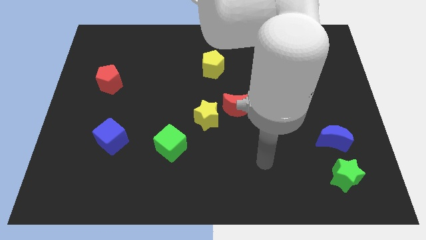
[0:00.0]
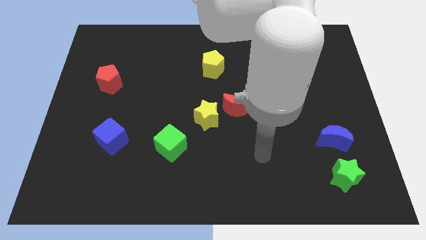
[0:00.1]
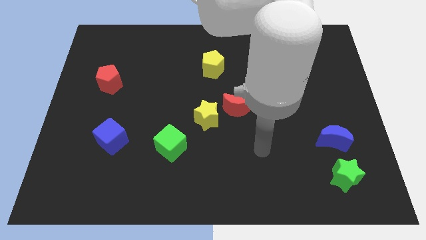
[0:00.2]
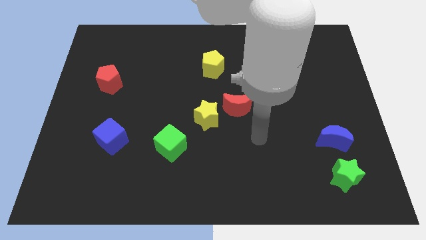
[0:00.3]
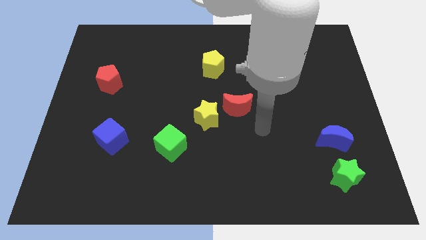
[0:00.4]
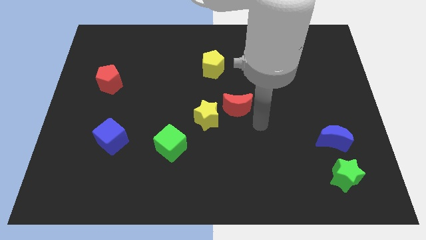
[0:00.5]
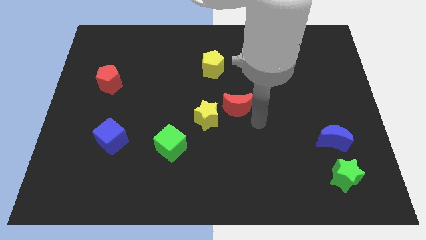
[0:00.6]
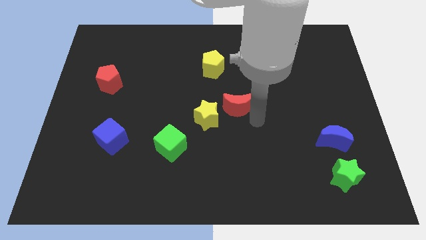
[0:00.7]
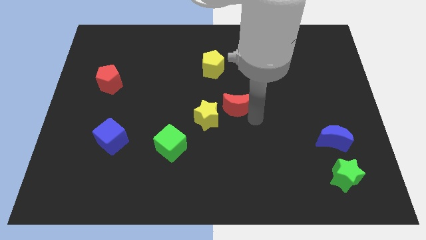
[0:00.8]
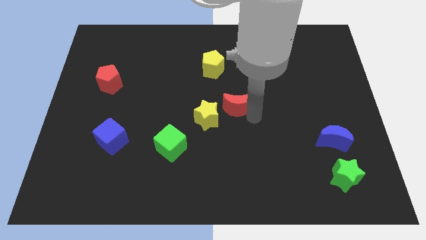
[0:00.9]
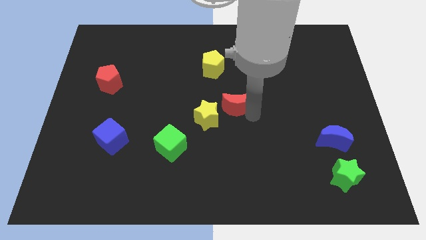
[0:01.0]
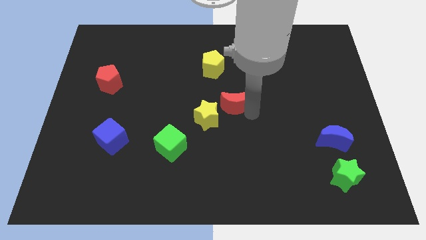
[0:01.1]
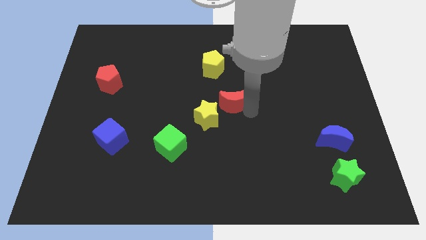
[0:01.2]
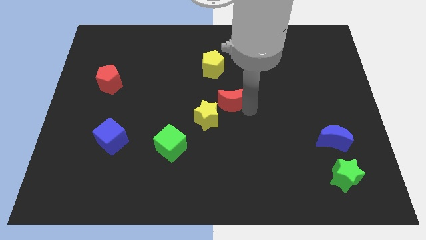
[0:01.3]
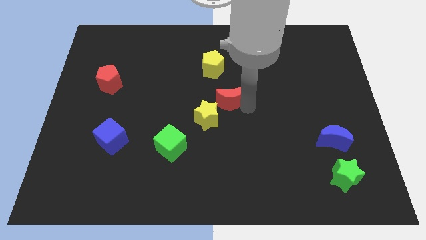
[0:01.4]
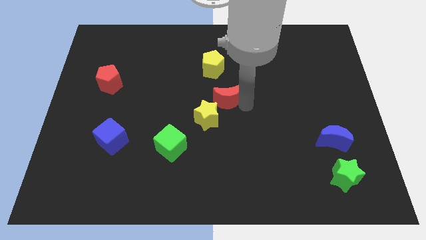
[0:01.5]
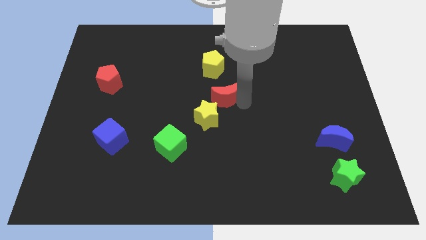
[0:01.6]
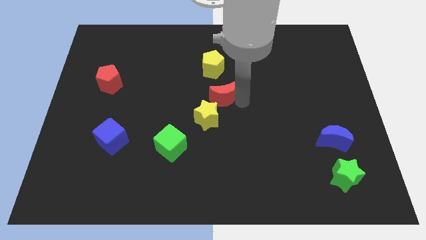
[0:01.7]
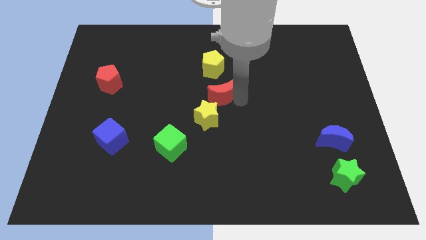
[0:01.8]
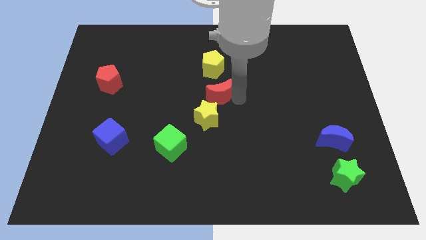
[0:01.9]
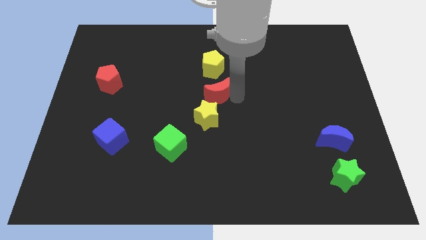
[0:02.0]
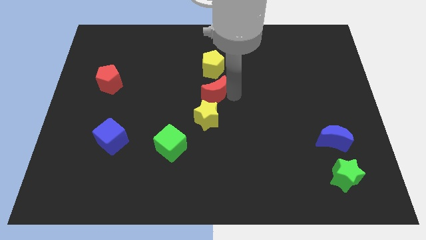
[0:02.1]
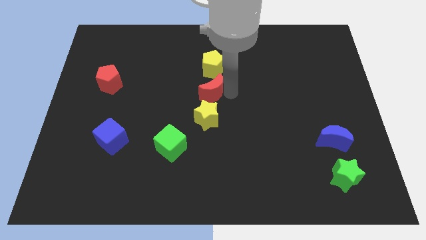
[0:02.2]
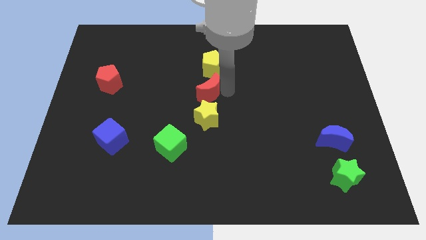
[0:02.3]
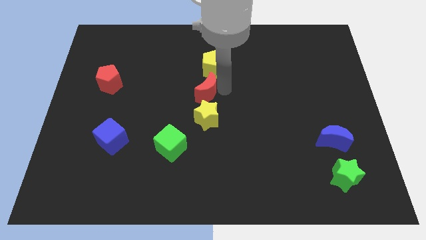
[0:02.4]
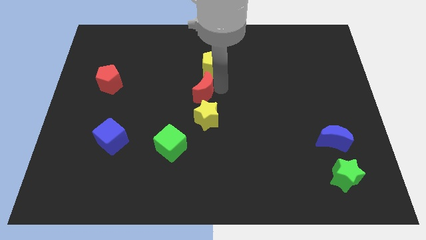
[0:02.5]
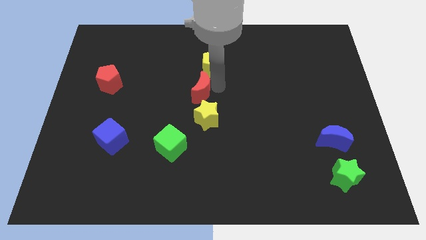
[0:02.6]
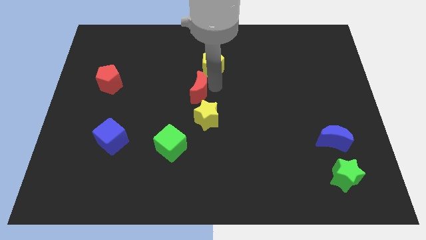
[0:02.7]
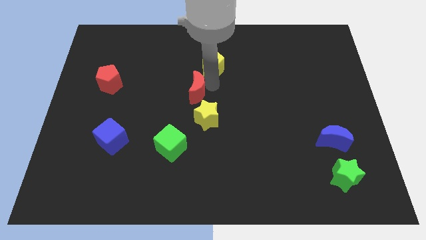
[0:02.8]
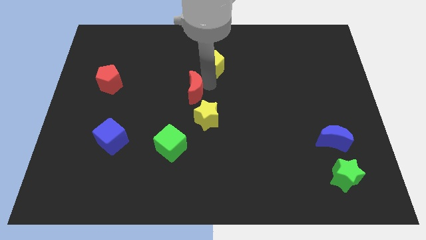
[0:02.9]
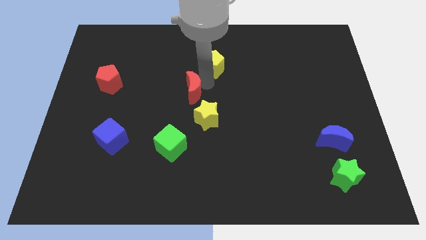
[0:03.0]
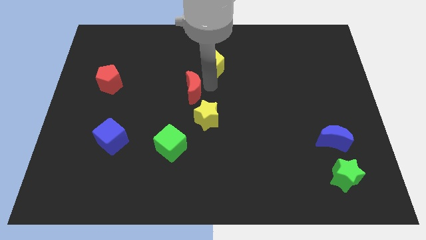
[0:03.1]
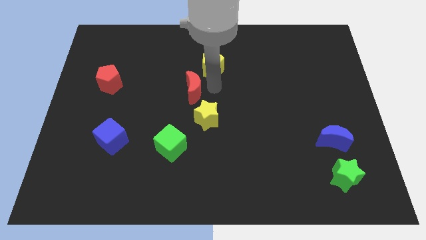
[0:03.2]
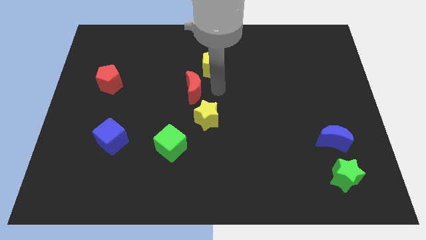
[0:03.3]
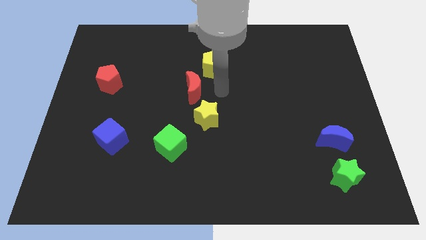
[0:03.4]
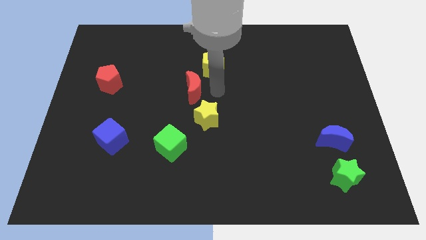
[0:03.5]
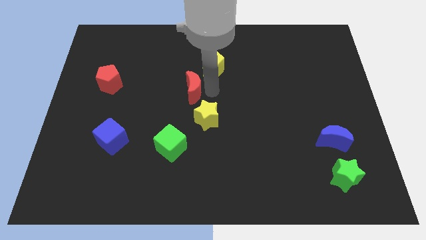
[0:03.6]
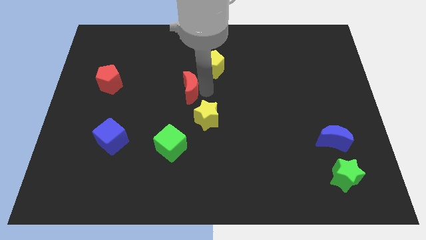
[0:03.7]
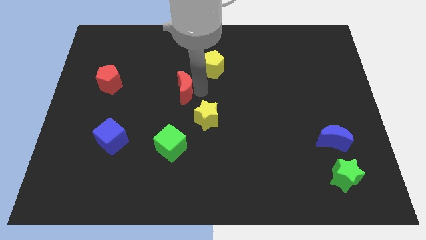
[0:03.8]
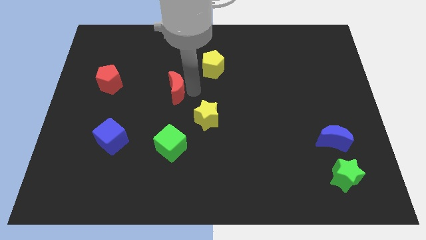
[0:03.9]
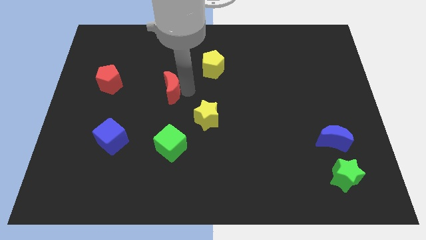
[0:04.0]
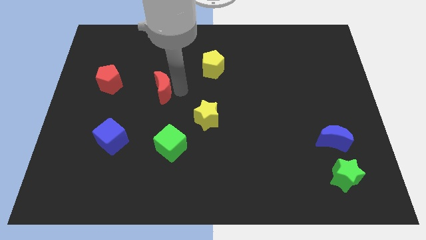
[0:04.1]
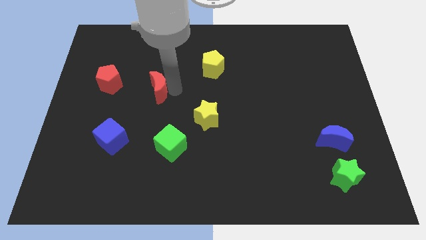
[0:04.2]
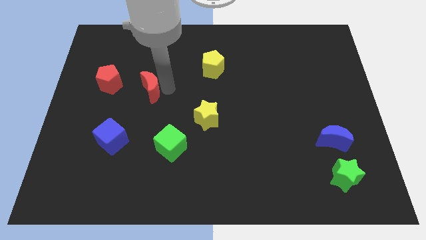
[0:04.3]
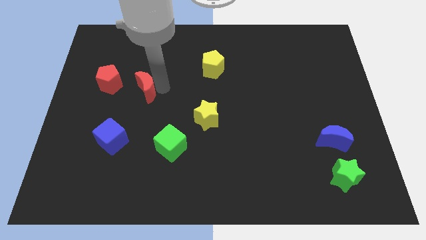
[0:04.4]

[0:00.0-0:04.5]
slide the red moon left

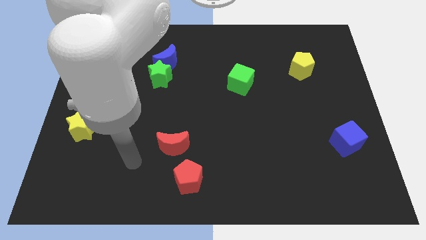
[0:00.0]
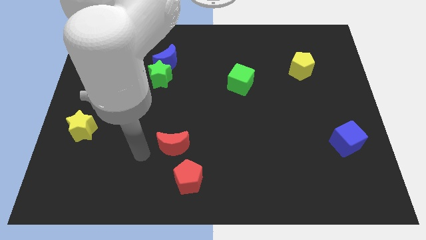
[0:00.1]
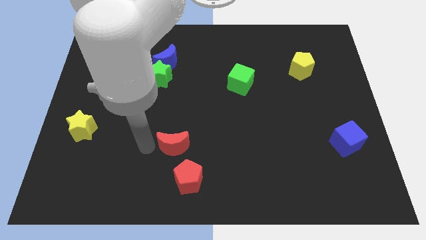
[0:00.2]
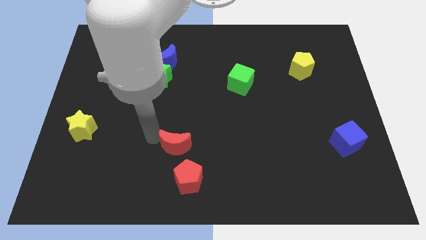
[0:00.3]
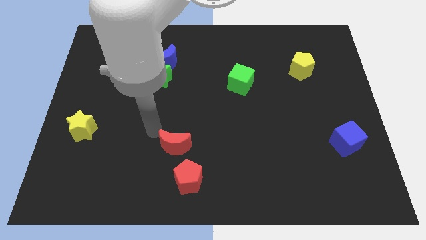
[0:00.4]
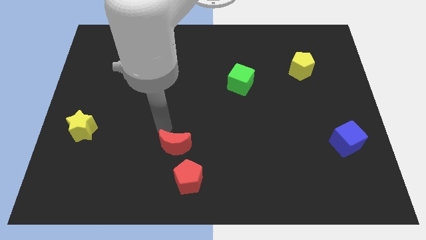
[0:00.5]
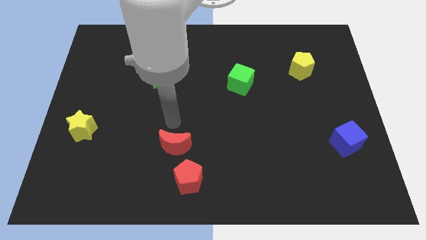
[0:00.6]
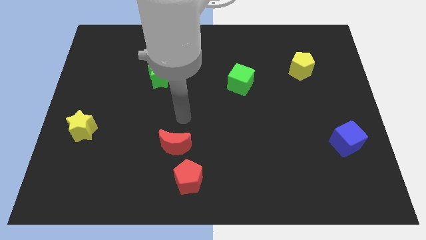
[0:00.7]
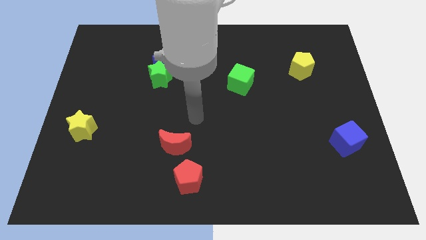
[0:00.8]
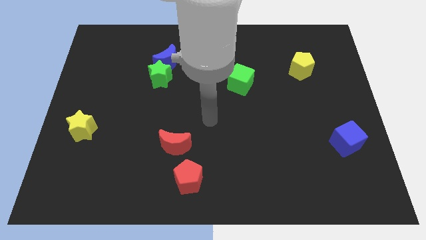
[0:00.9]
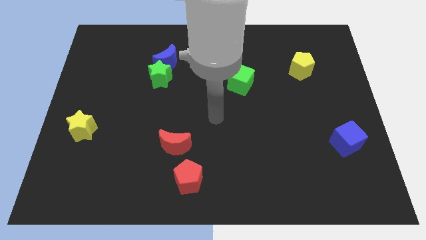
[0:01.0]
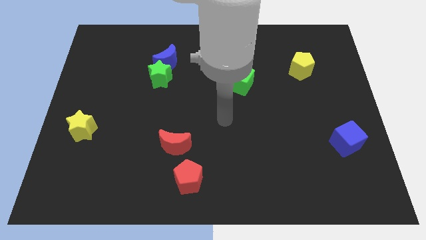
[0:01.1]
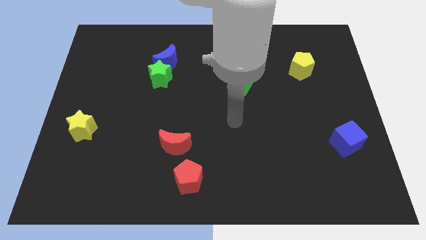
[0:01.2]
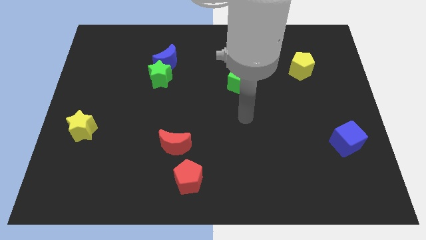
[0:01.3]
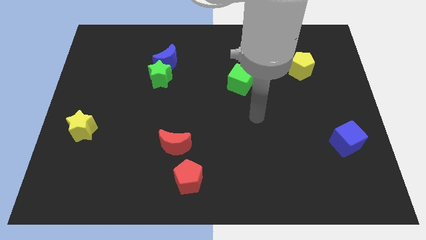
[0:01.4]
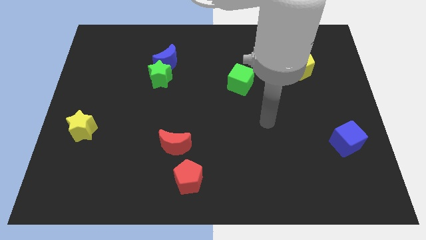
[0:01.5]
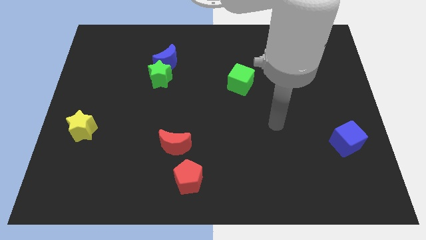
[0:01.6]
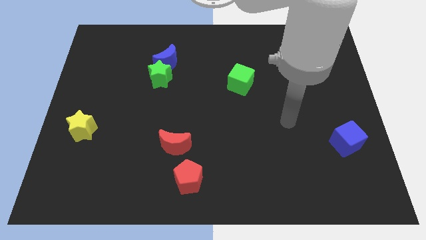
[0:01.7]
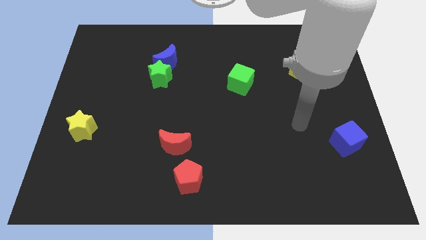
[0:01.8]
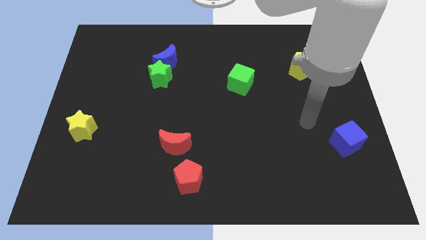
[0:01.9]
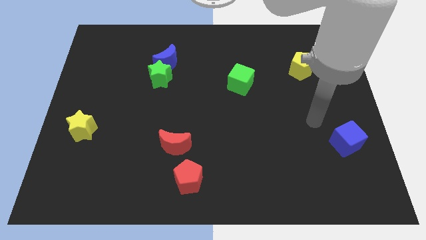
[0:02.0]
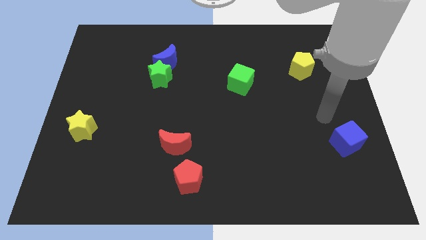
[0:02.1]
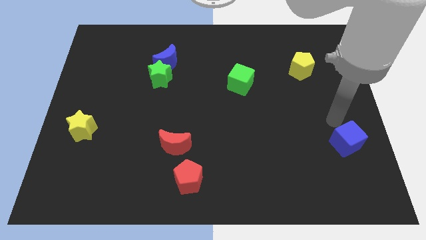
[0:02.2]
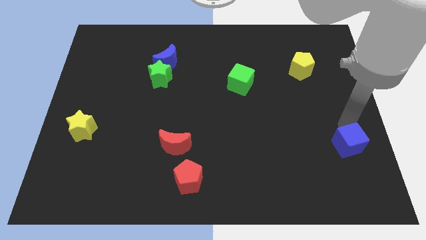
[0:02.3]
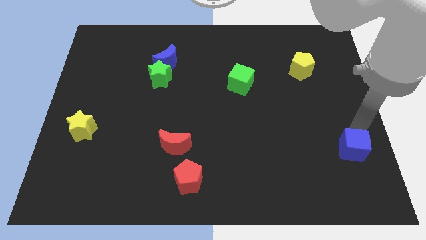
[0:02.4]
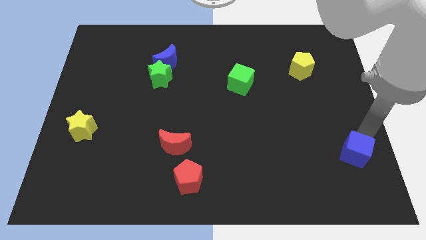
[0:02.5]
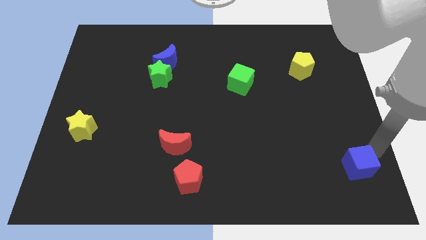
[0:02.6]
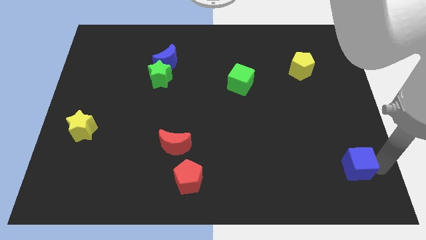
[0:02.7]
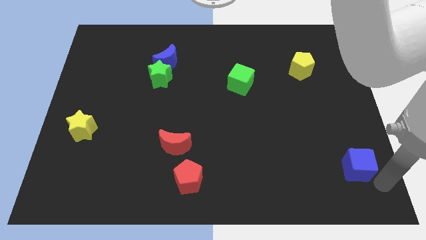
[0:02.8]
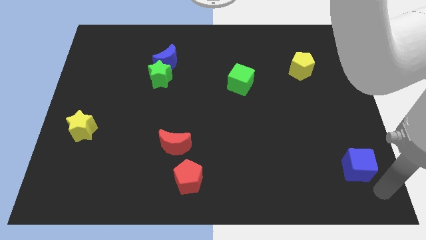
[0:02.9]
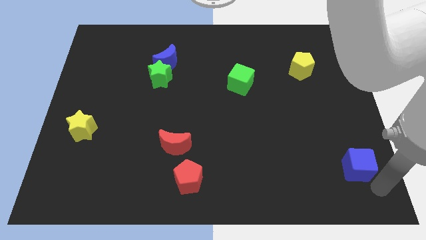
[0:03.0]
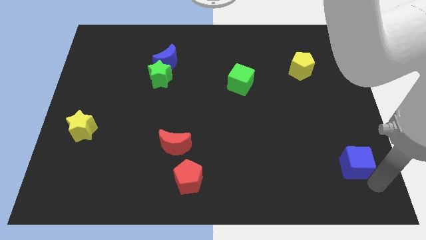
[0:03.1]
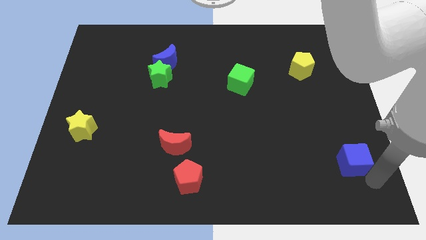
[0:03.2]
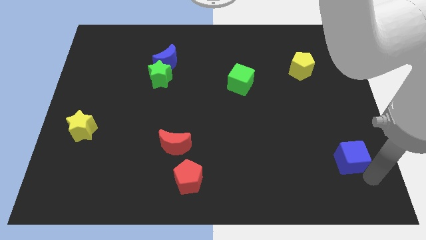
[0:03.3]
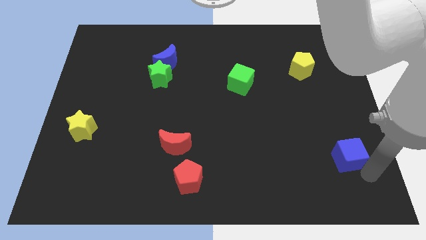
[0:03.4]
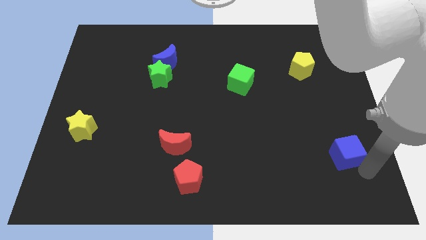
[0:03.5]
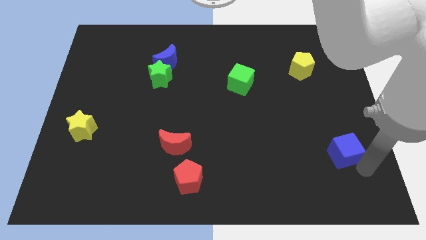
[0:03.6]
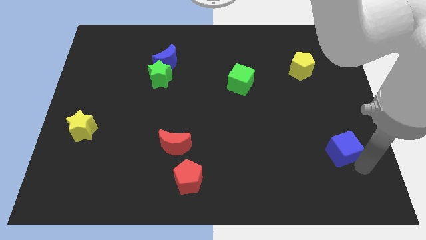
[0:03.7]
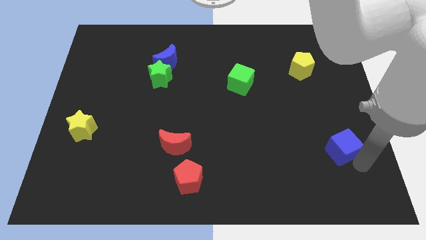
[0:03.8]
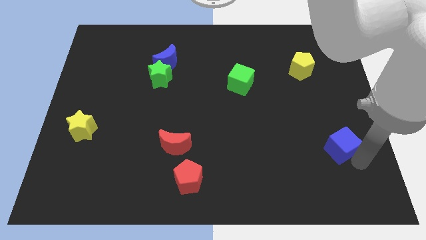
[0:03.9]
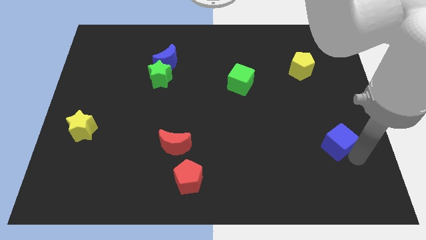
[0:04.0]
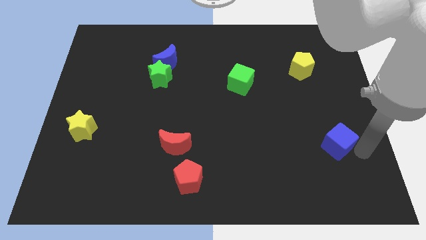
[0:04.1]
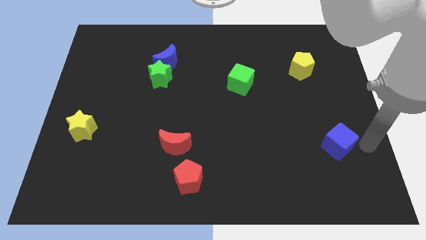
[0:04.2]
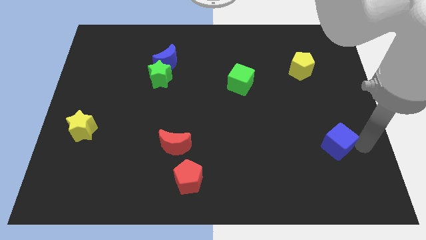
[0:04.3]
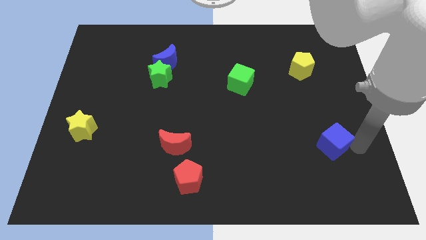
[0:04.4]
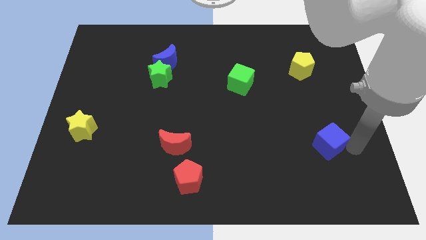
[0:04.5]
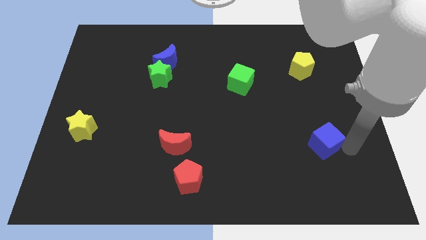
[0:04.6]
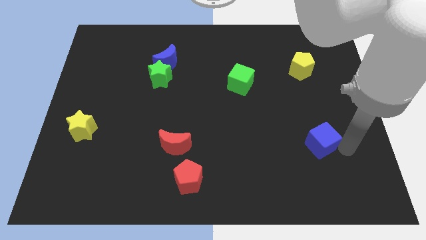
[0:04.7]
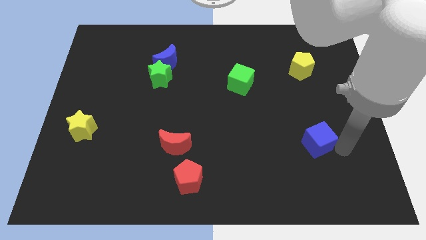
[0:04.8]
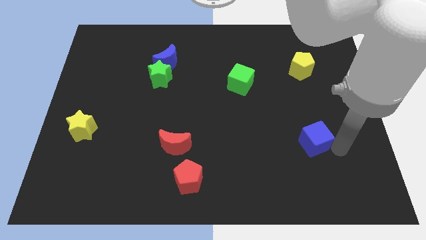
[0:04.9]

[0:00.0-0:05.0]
slide the blue cube to the left a little
